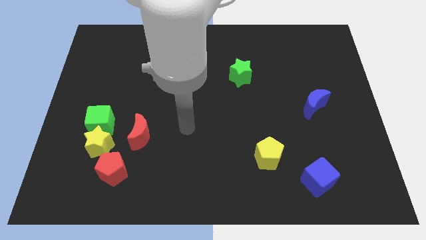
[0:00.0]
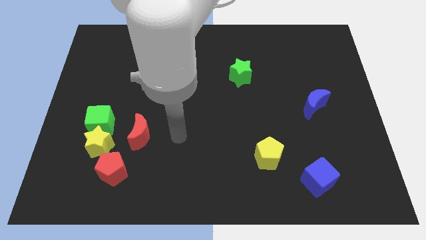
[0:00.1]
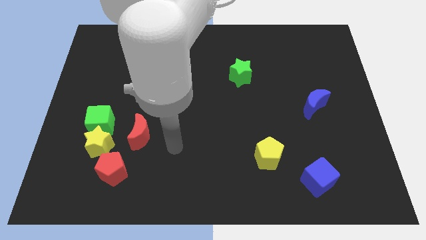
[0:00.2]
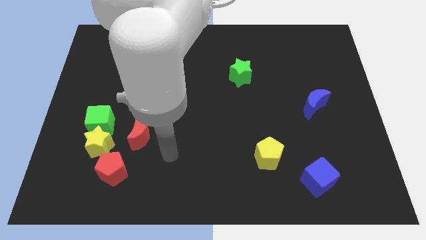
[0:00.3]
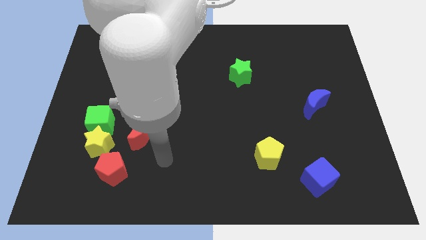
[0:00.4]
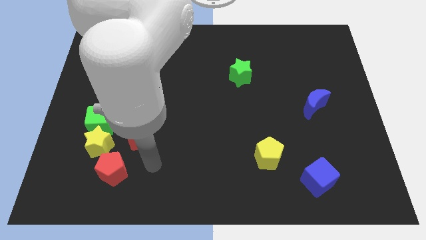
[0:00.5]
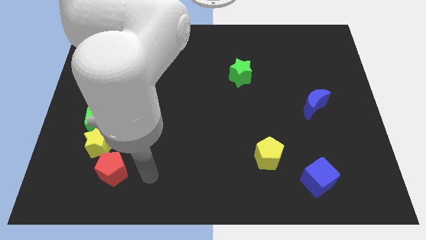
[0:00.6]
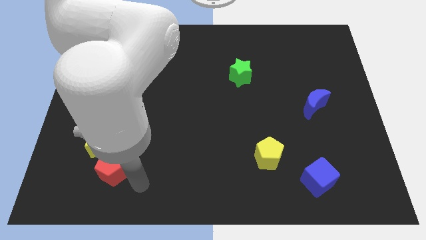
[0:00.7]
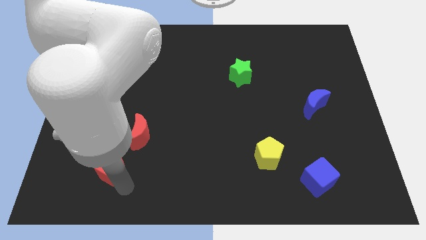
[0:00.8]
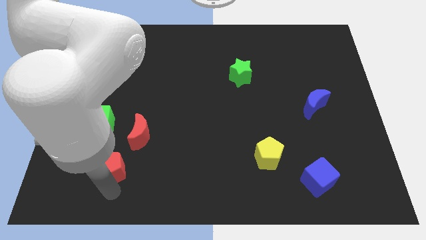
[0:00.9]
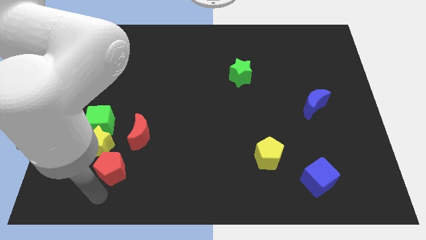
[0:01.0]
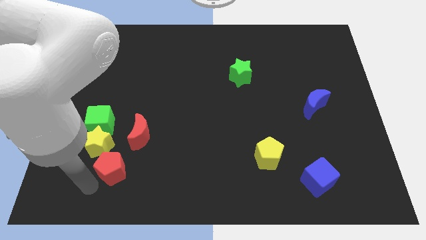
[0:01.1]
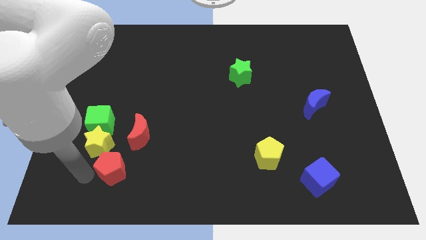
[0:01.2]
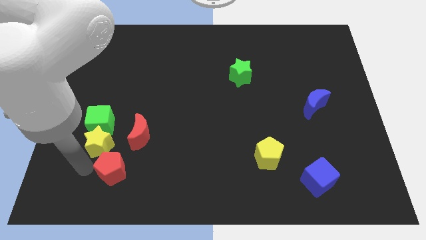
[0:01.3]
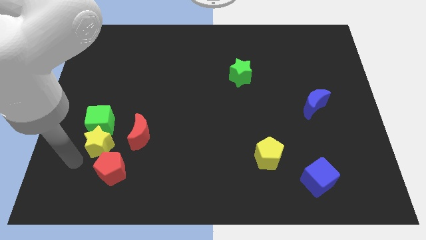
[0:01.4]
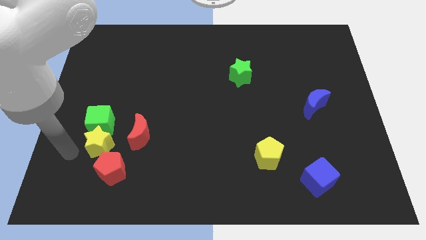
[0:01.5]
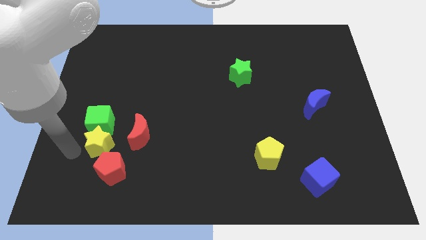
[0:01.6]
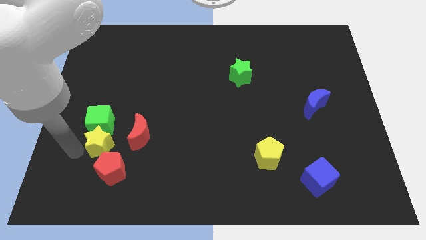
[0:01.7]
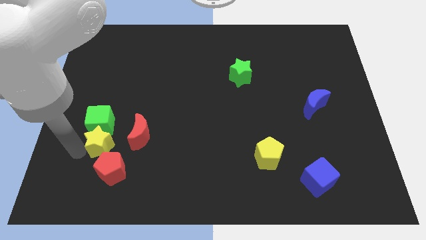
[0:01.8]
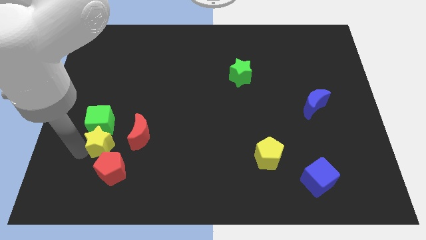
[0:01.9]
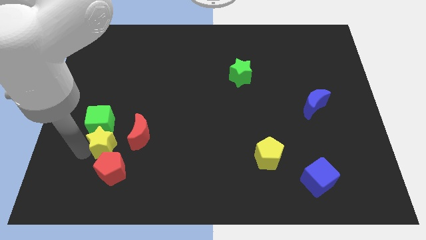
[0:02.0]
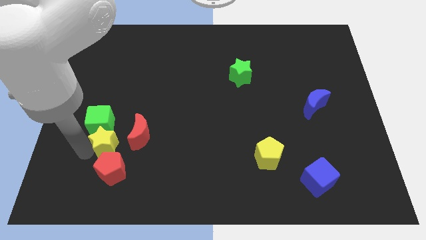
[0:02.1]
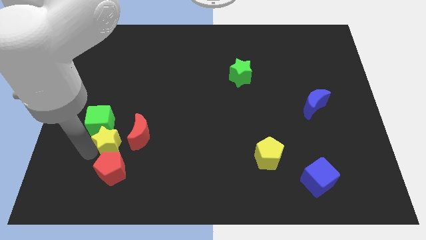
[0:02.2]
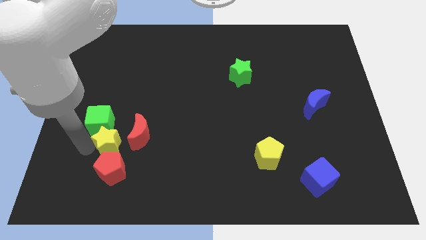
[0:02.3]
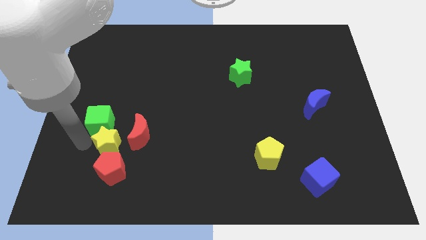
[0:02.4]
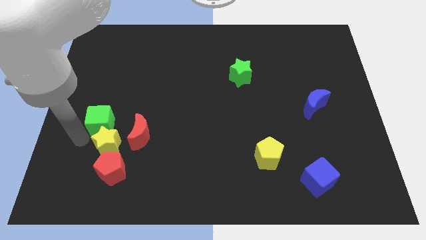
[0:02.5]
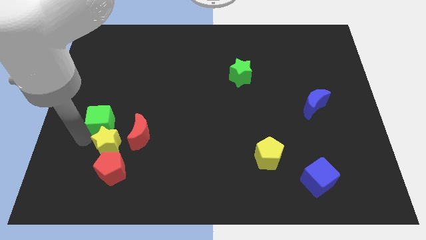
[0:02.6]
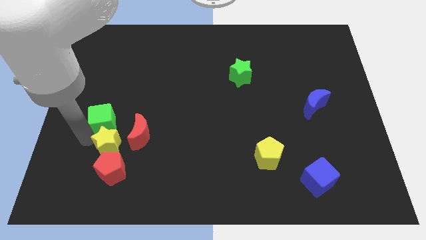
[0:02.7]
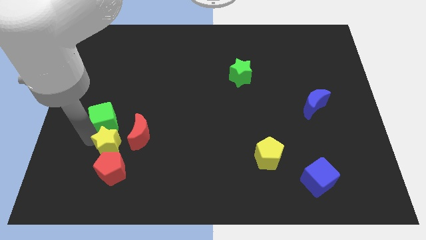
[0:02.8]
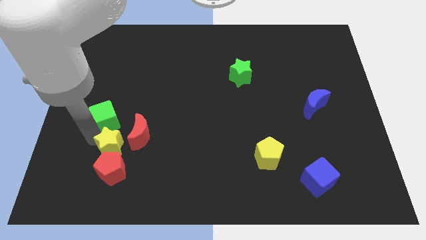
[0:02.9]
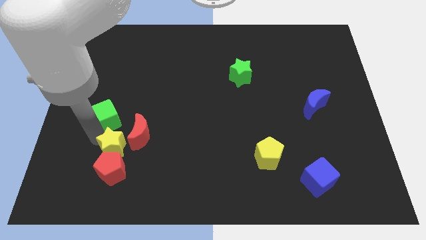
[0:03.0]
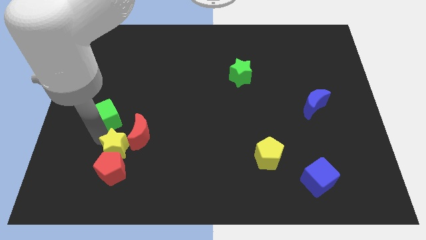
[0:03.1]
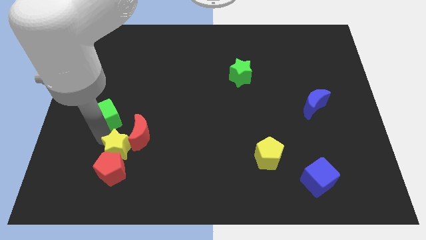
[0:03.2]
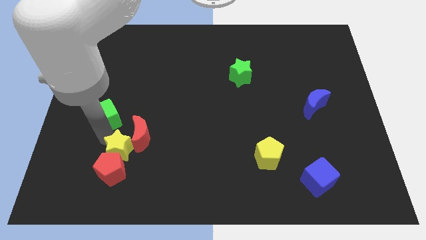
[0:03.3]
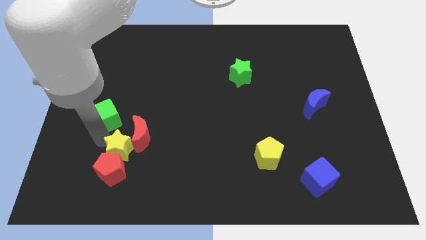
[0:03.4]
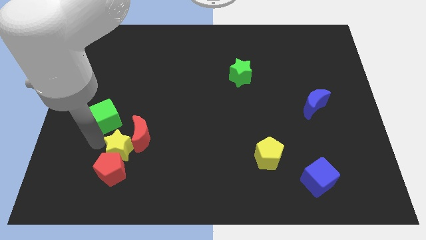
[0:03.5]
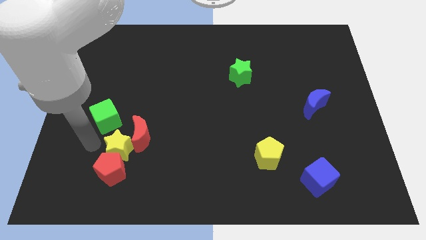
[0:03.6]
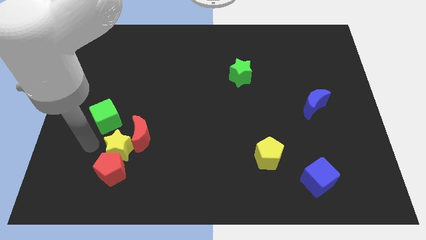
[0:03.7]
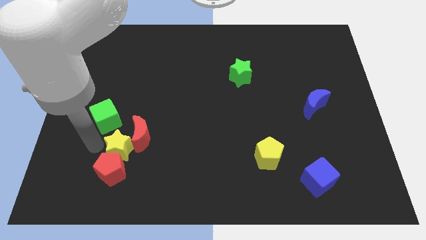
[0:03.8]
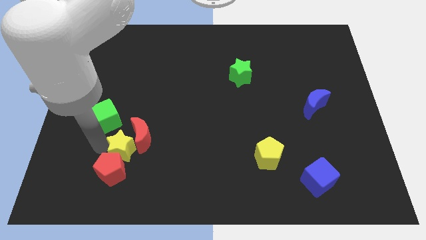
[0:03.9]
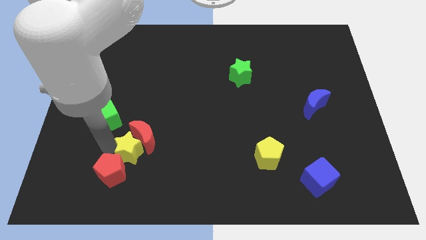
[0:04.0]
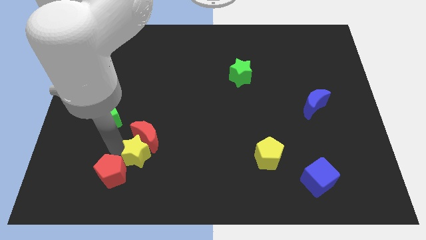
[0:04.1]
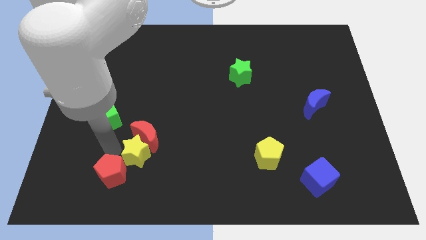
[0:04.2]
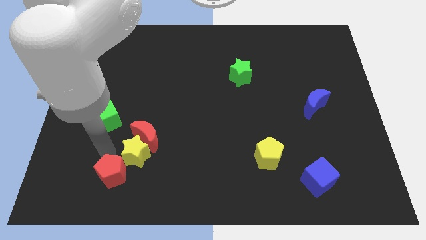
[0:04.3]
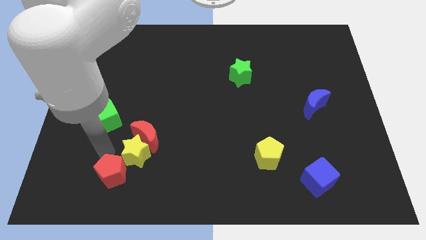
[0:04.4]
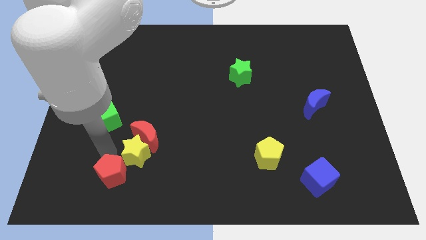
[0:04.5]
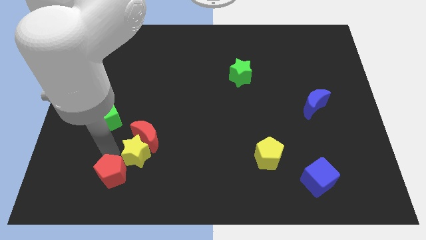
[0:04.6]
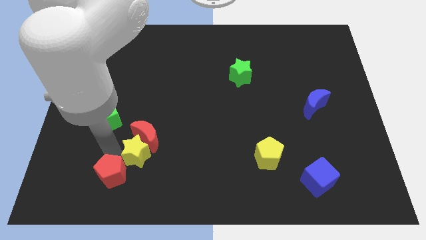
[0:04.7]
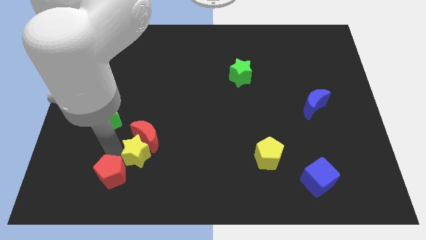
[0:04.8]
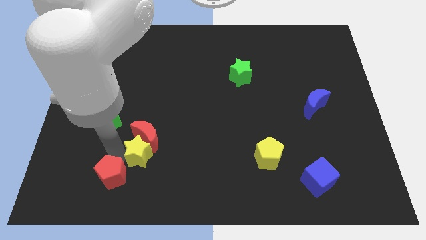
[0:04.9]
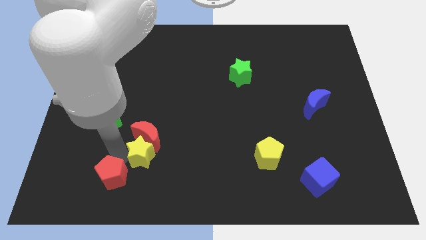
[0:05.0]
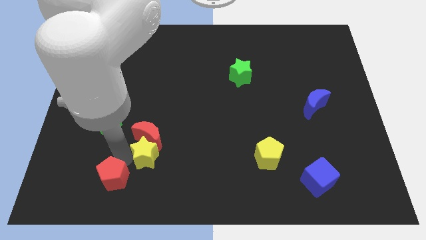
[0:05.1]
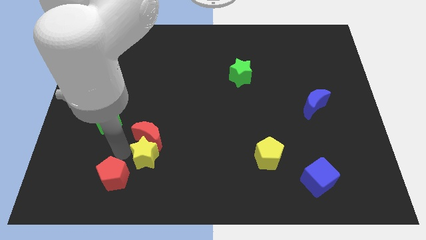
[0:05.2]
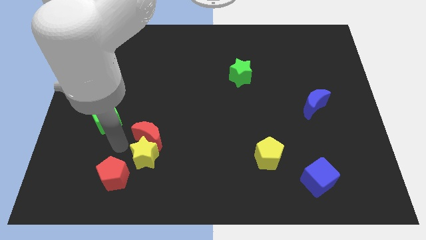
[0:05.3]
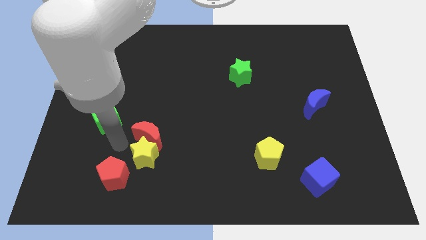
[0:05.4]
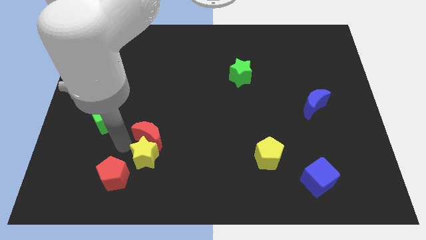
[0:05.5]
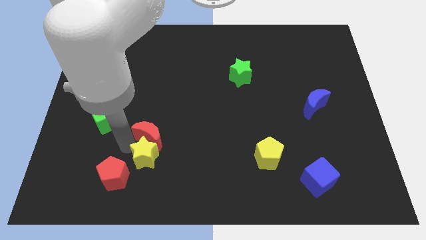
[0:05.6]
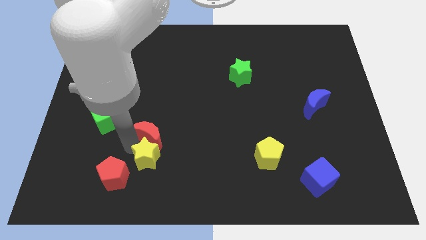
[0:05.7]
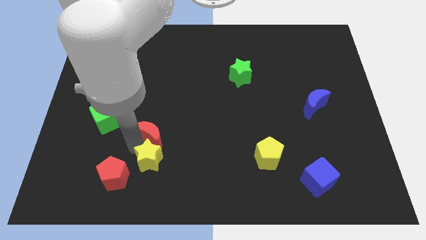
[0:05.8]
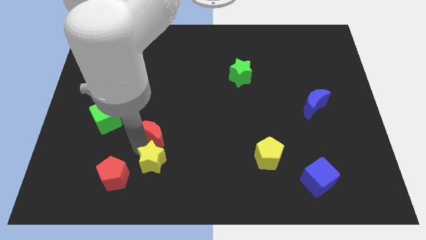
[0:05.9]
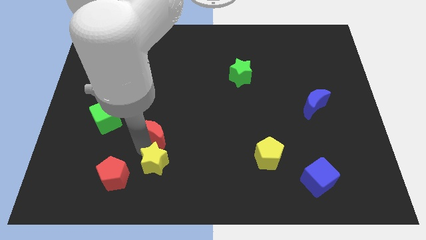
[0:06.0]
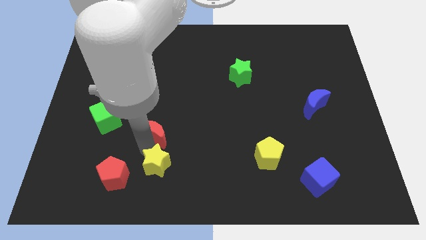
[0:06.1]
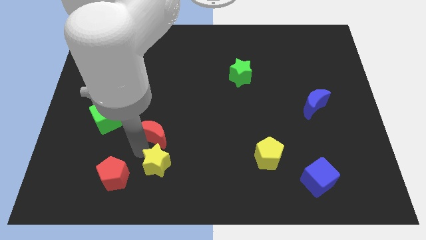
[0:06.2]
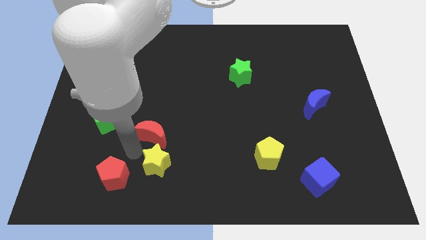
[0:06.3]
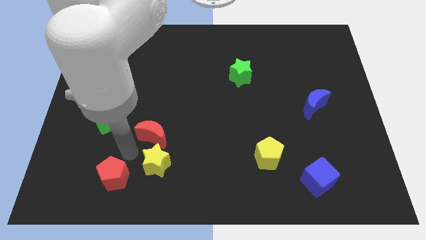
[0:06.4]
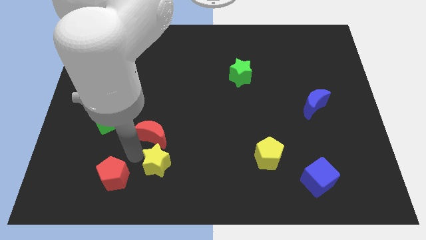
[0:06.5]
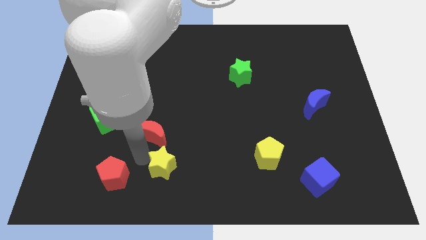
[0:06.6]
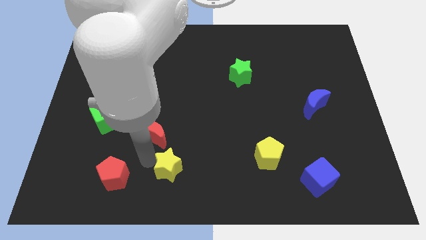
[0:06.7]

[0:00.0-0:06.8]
move the yellow star to the bottom side
